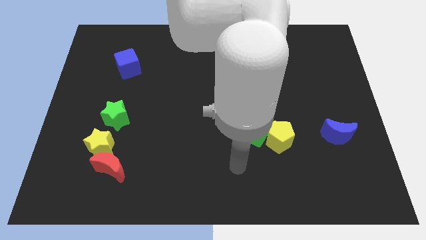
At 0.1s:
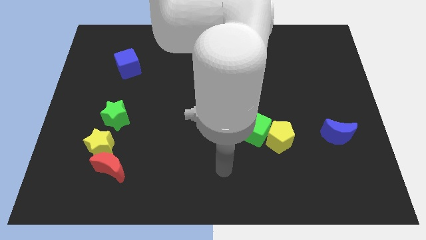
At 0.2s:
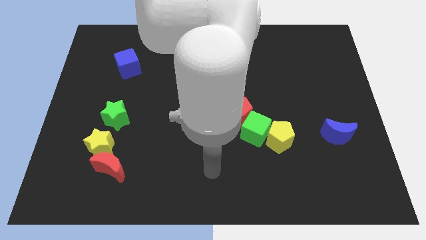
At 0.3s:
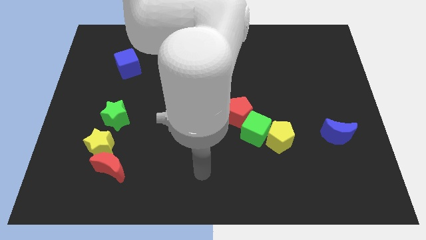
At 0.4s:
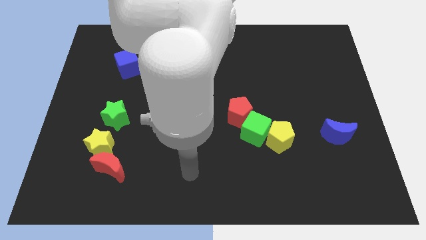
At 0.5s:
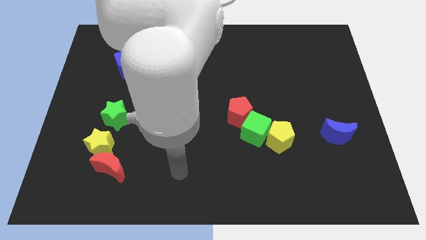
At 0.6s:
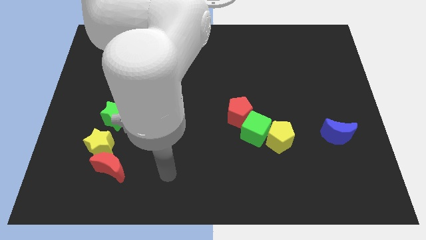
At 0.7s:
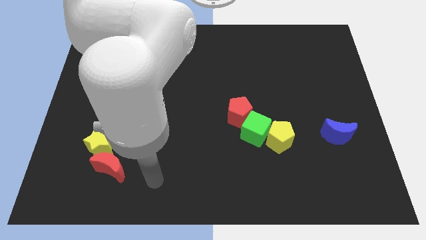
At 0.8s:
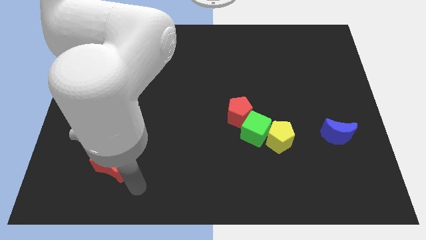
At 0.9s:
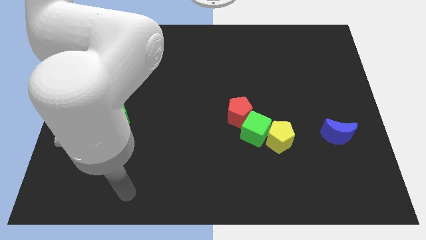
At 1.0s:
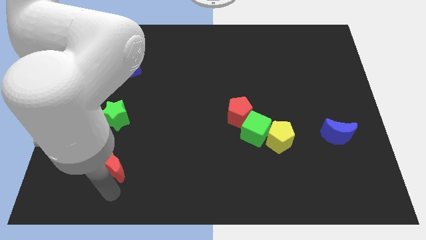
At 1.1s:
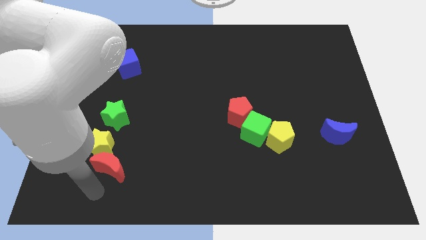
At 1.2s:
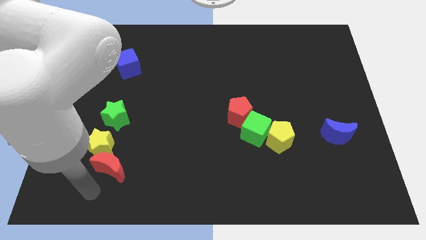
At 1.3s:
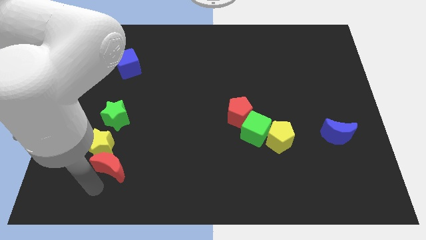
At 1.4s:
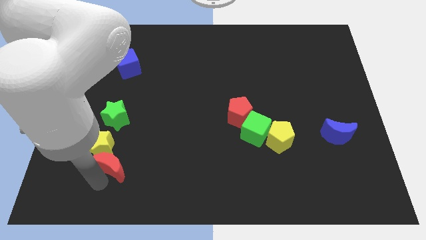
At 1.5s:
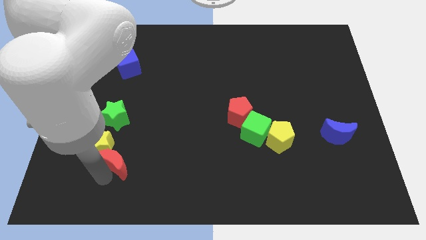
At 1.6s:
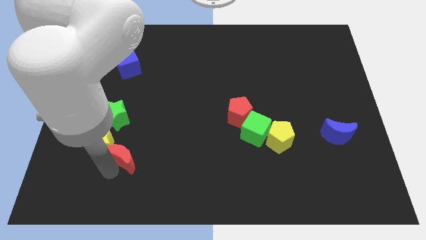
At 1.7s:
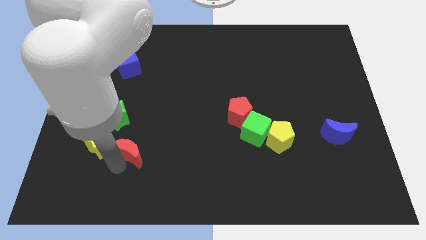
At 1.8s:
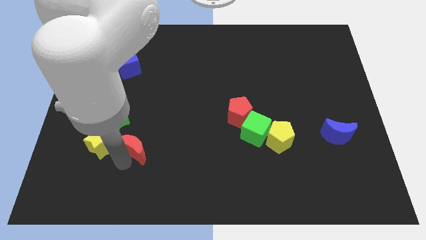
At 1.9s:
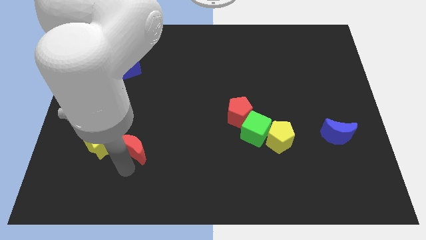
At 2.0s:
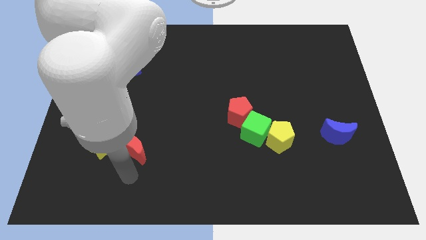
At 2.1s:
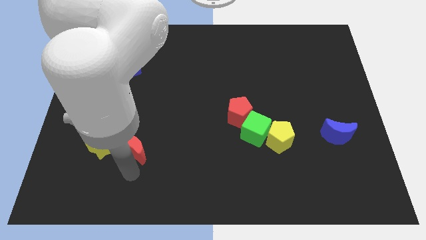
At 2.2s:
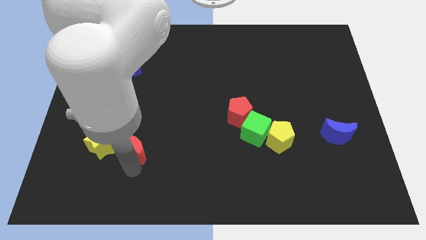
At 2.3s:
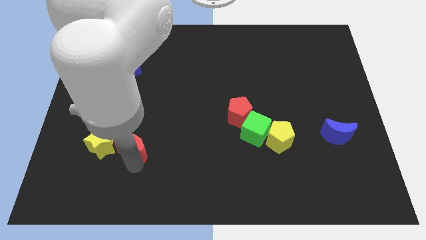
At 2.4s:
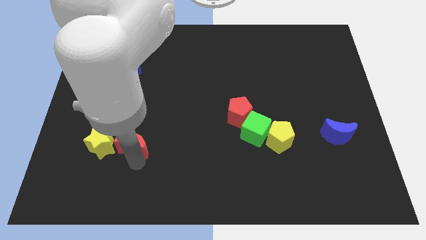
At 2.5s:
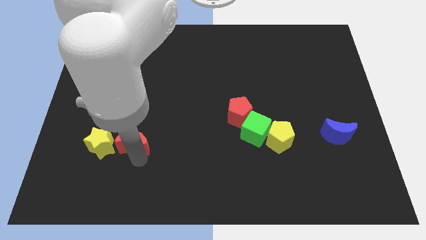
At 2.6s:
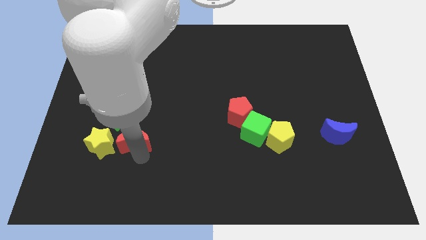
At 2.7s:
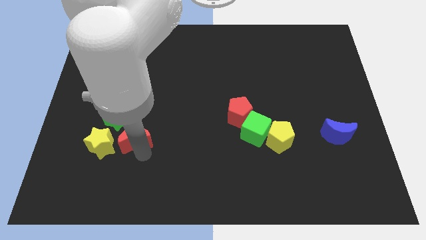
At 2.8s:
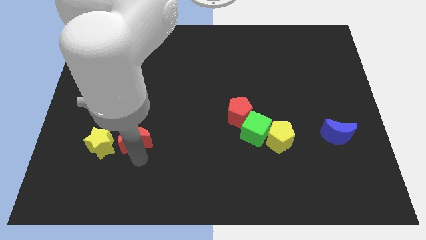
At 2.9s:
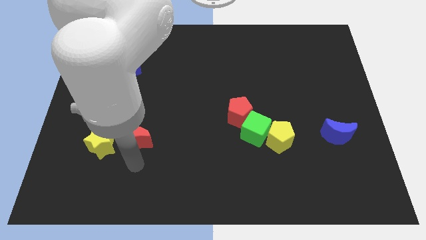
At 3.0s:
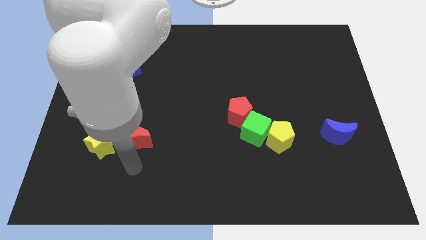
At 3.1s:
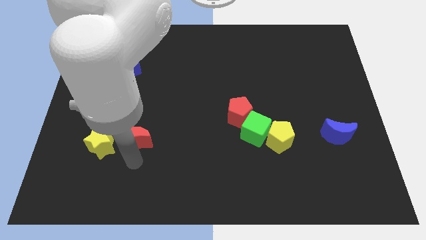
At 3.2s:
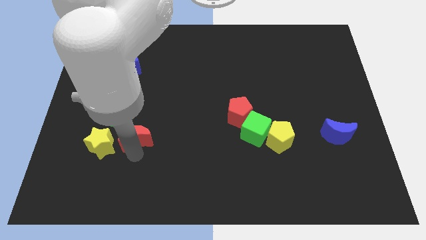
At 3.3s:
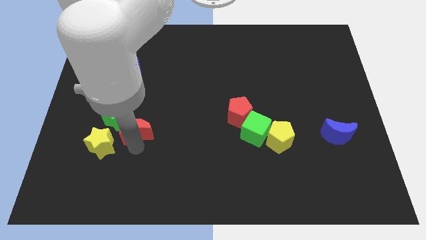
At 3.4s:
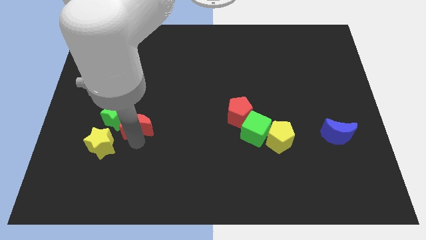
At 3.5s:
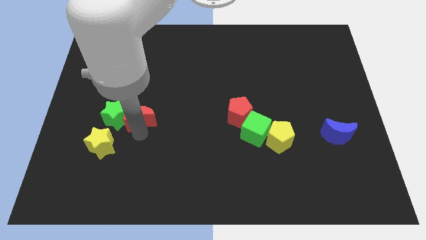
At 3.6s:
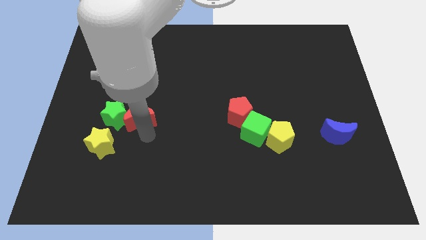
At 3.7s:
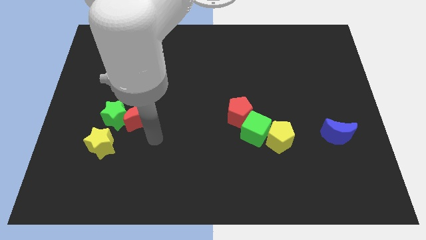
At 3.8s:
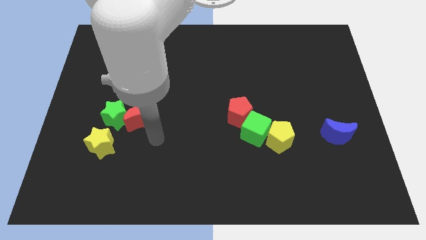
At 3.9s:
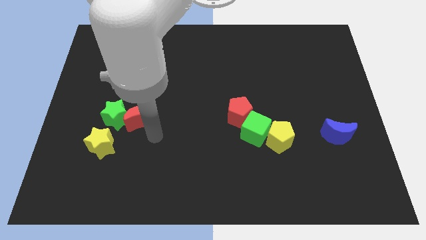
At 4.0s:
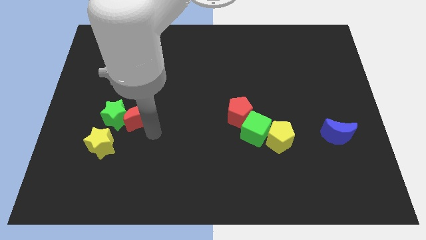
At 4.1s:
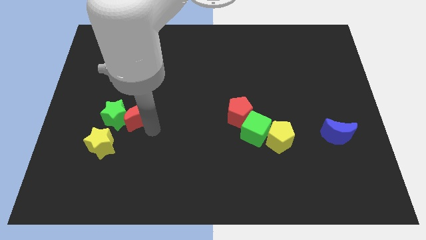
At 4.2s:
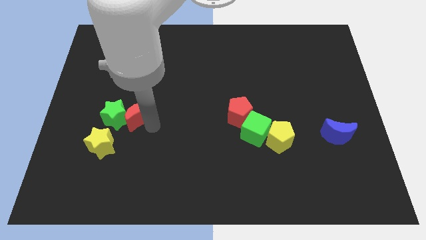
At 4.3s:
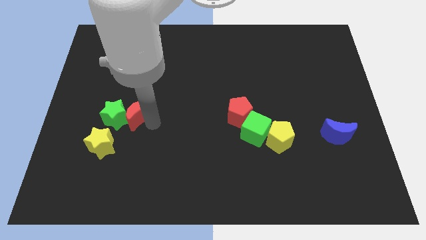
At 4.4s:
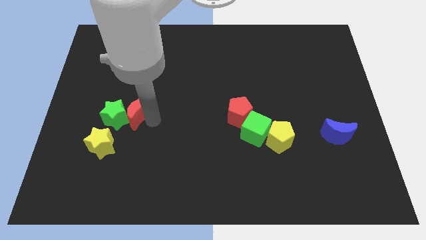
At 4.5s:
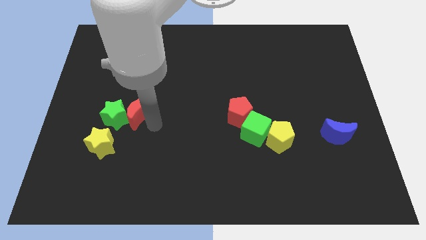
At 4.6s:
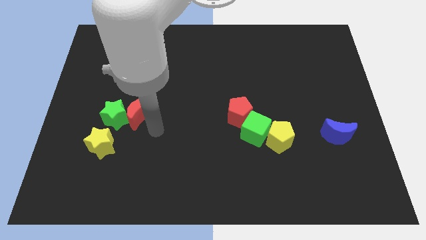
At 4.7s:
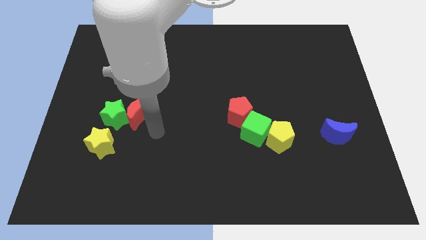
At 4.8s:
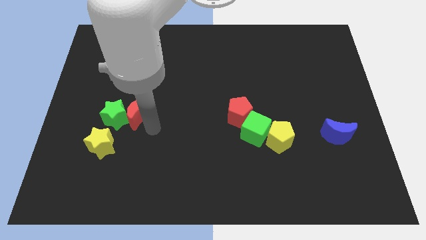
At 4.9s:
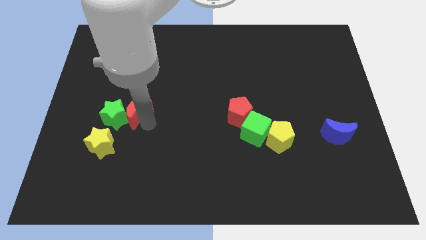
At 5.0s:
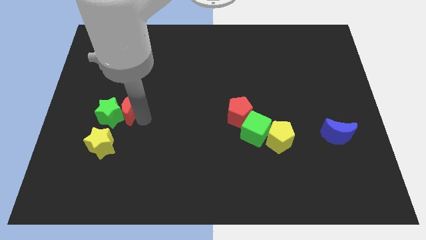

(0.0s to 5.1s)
push the red moon below the blue cube

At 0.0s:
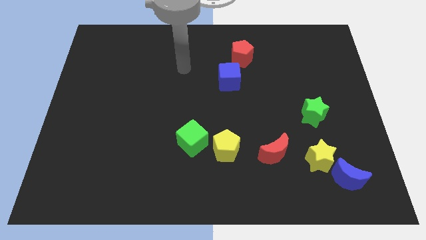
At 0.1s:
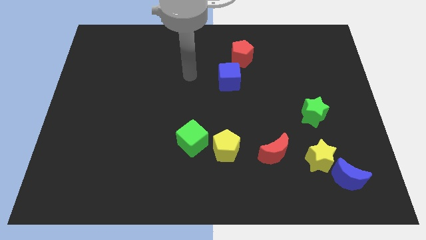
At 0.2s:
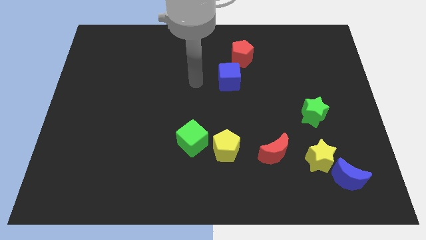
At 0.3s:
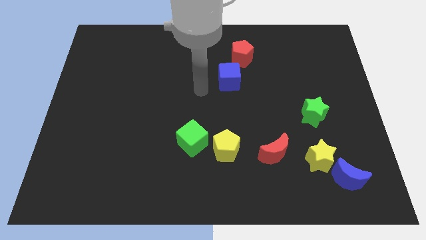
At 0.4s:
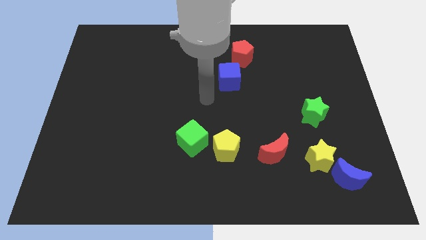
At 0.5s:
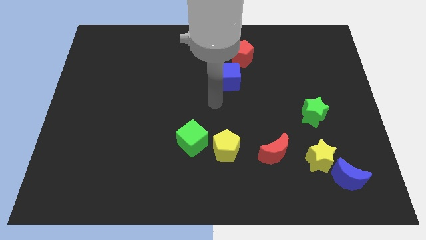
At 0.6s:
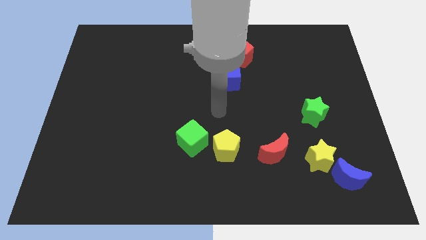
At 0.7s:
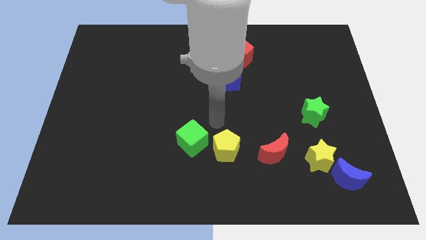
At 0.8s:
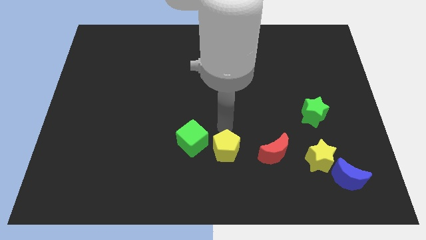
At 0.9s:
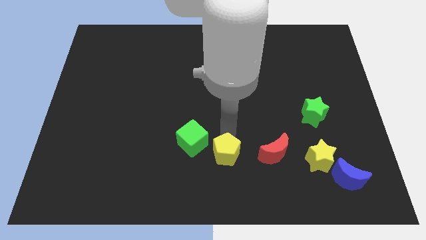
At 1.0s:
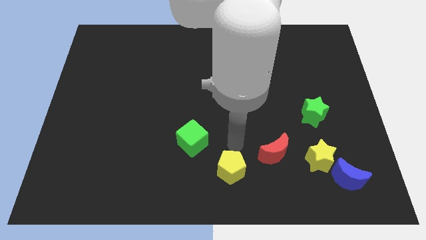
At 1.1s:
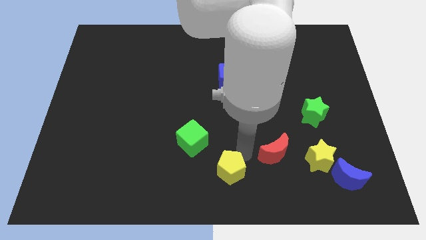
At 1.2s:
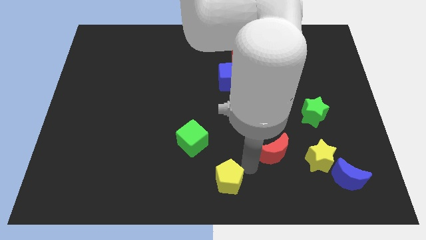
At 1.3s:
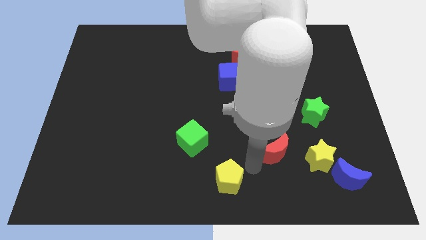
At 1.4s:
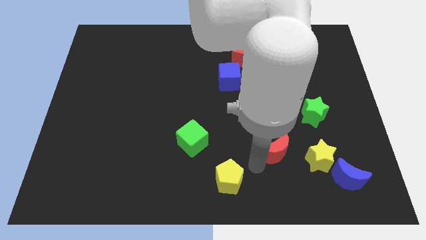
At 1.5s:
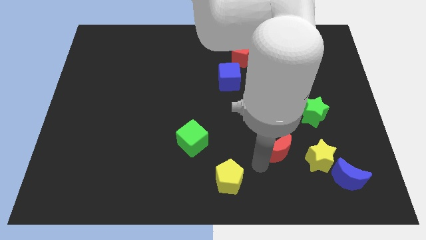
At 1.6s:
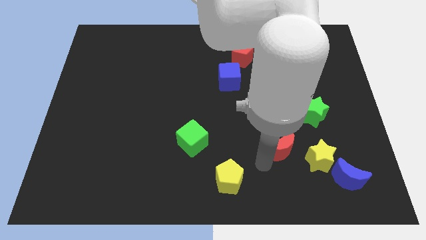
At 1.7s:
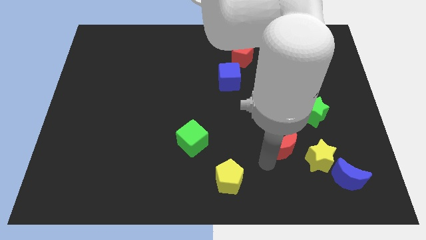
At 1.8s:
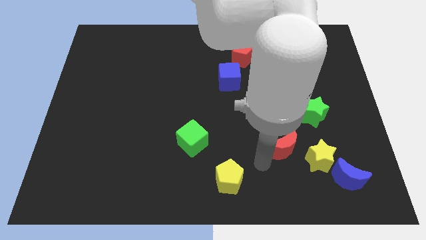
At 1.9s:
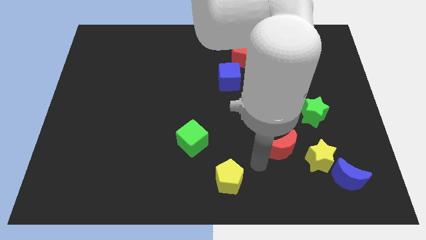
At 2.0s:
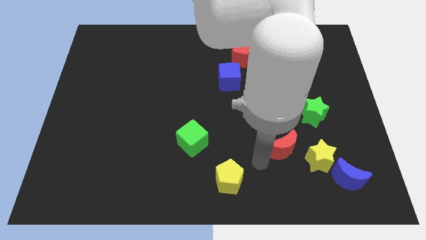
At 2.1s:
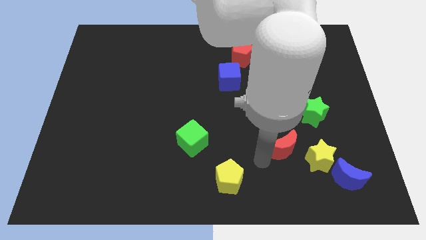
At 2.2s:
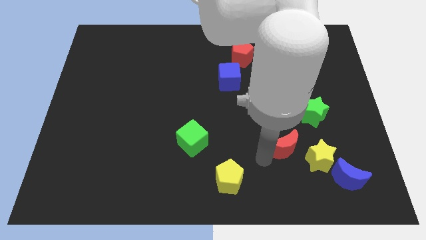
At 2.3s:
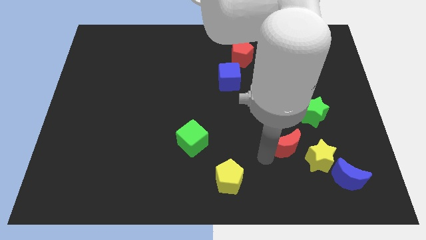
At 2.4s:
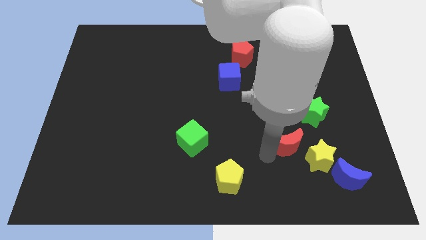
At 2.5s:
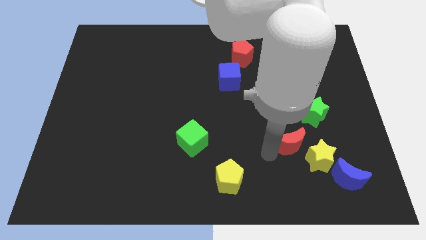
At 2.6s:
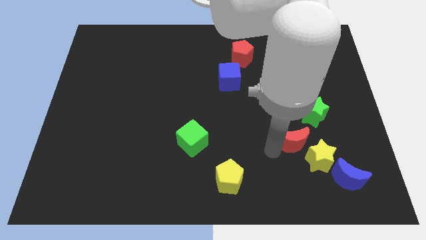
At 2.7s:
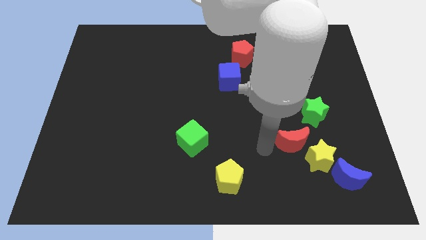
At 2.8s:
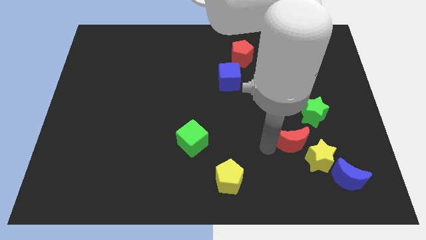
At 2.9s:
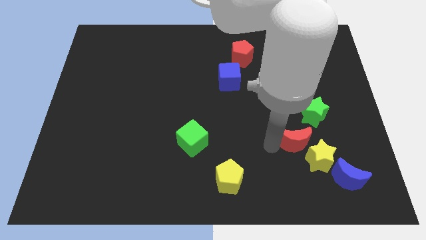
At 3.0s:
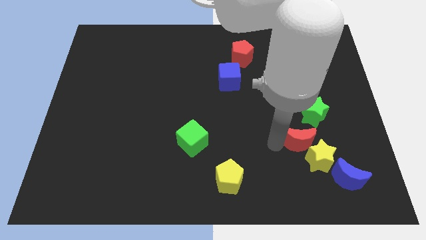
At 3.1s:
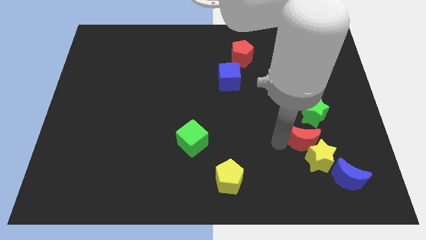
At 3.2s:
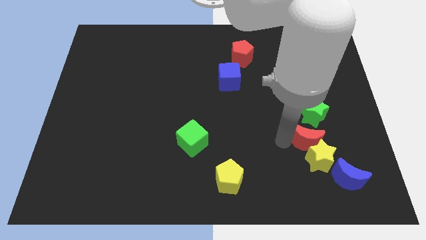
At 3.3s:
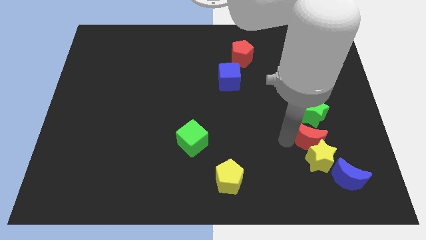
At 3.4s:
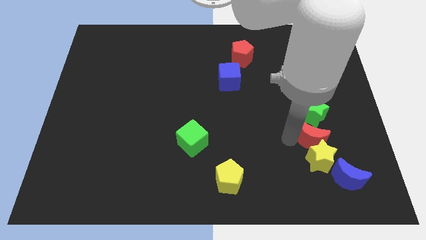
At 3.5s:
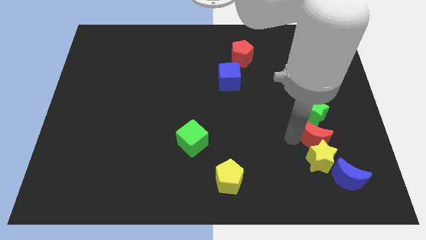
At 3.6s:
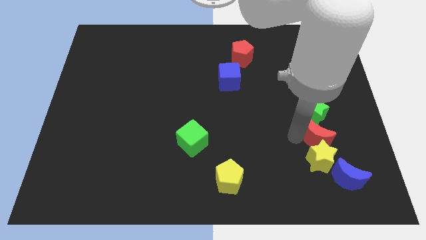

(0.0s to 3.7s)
move the red moon to the top side of the blue moon
